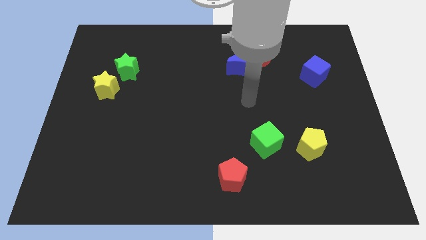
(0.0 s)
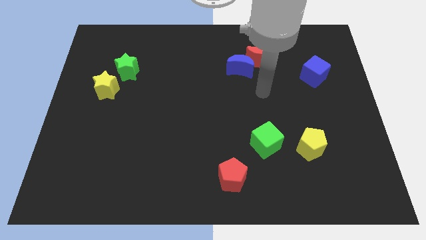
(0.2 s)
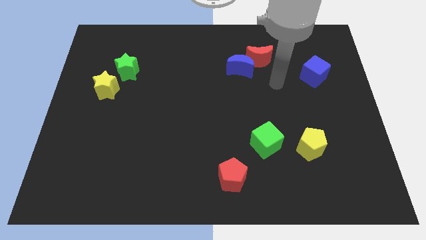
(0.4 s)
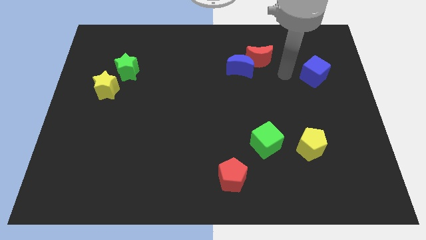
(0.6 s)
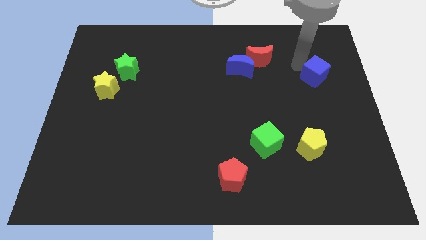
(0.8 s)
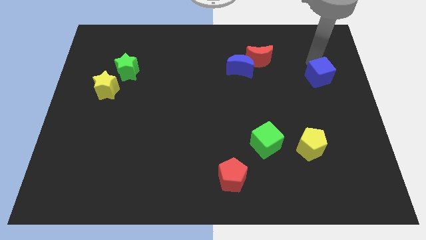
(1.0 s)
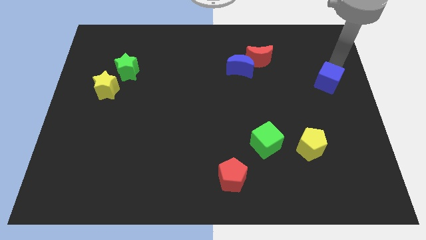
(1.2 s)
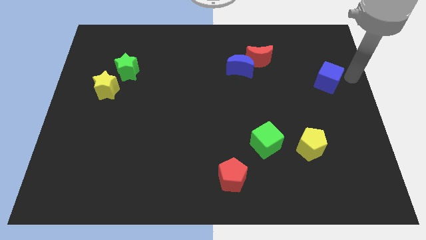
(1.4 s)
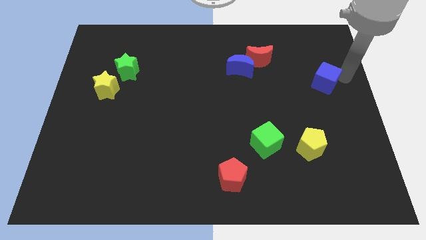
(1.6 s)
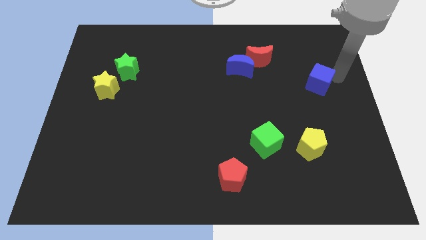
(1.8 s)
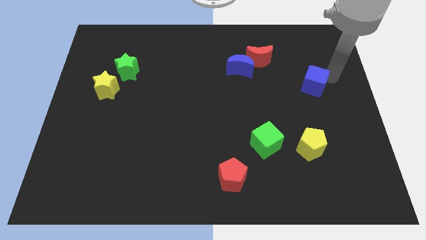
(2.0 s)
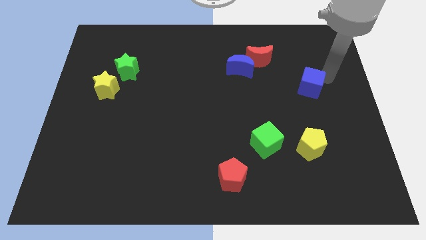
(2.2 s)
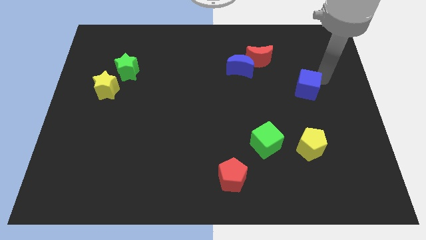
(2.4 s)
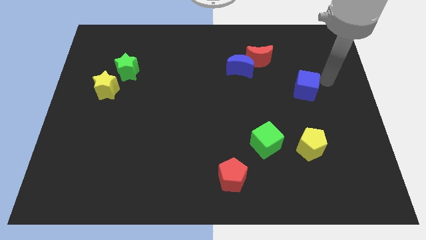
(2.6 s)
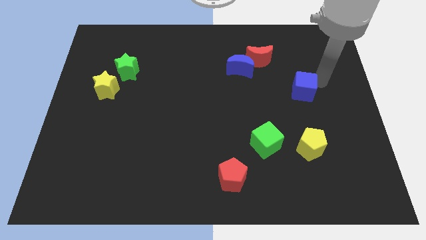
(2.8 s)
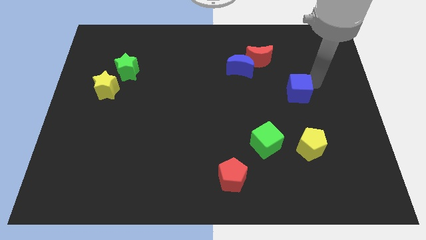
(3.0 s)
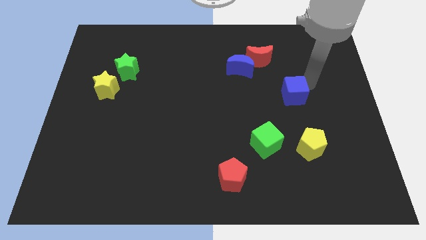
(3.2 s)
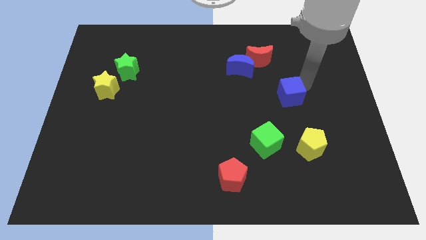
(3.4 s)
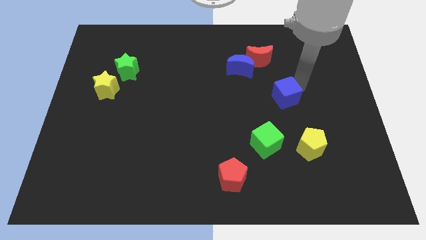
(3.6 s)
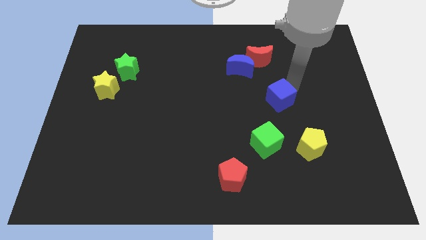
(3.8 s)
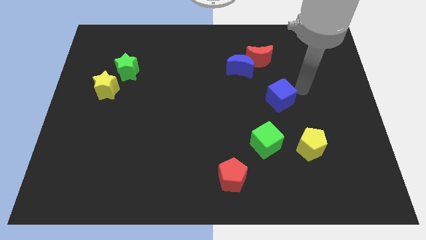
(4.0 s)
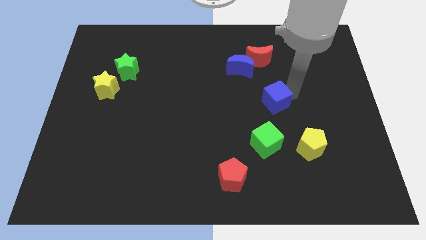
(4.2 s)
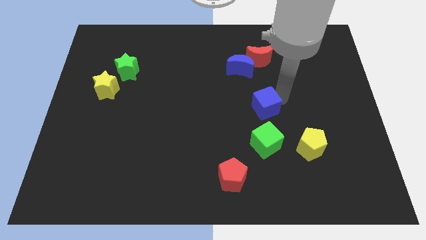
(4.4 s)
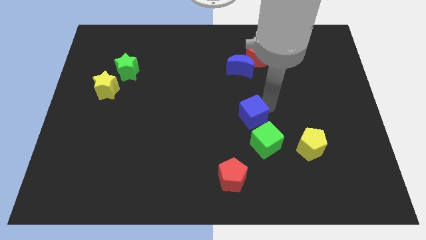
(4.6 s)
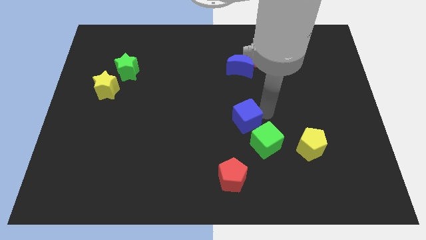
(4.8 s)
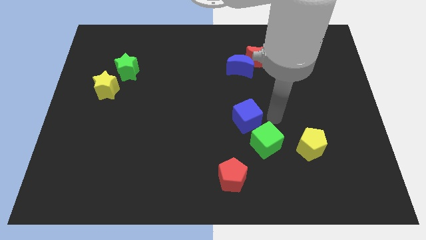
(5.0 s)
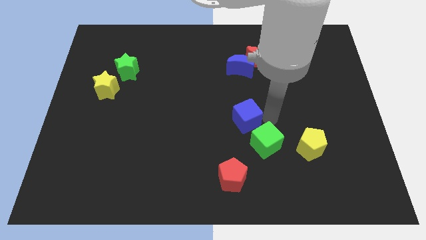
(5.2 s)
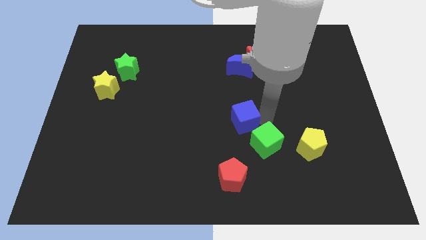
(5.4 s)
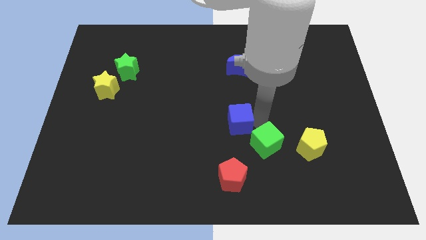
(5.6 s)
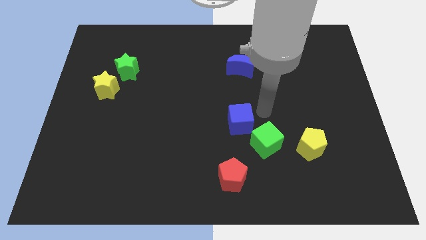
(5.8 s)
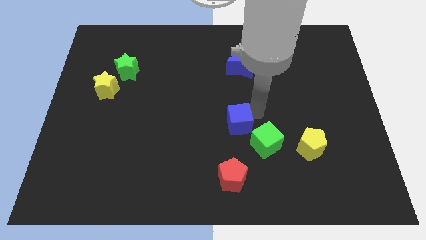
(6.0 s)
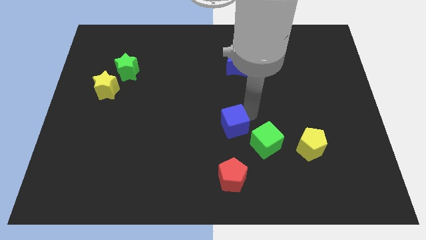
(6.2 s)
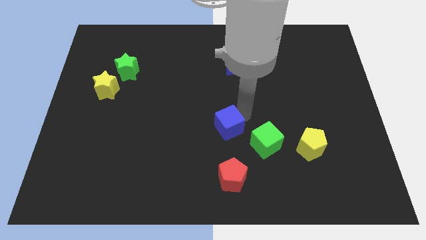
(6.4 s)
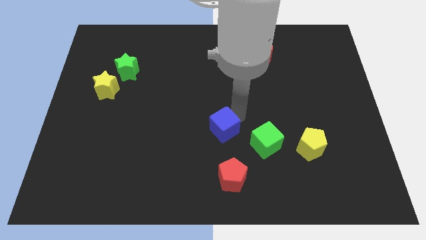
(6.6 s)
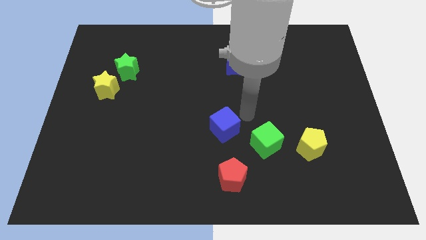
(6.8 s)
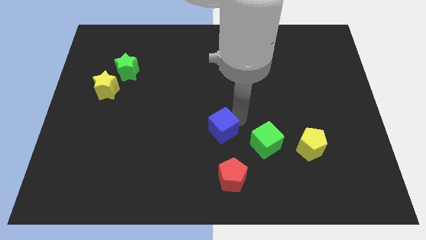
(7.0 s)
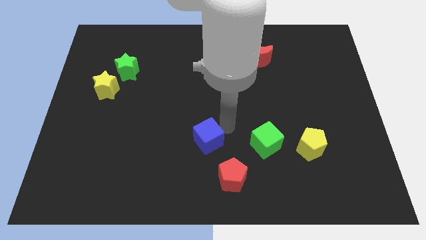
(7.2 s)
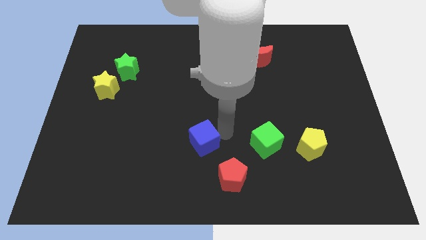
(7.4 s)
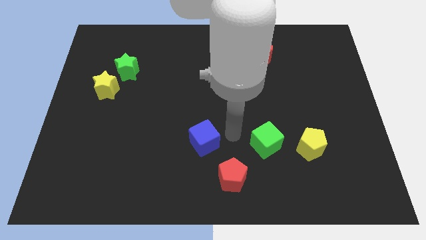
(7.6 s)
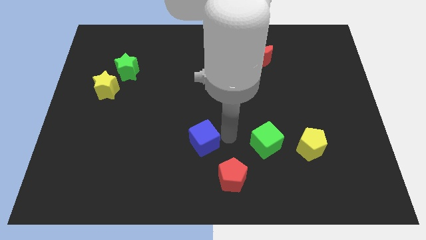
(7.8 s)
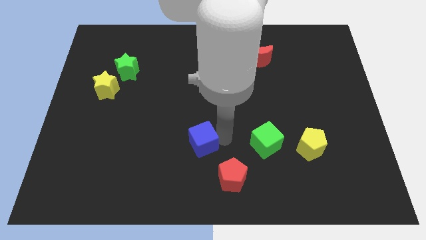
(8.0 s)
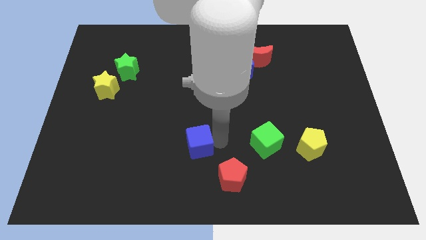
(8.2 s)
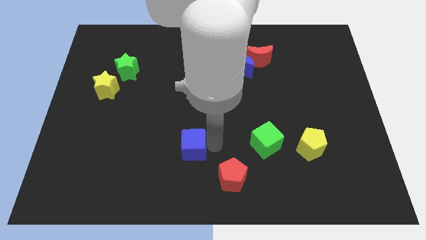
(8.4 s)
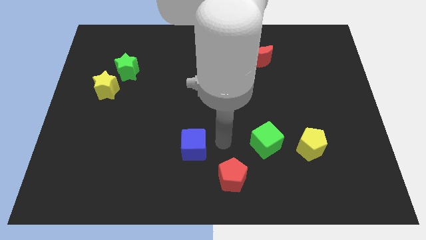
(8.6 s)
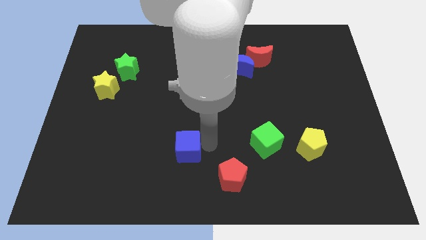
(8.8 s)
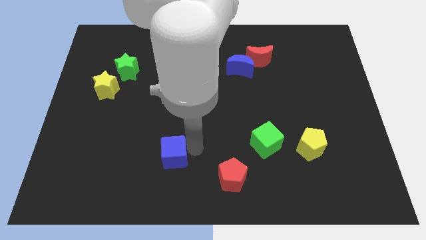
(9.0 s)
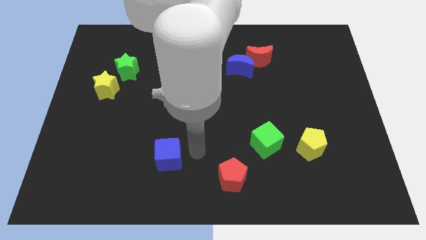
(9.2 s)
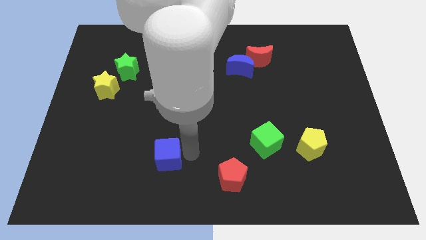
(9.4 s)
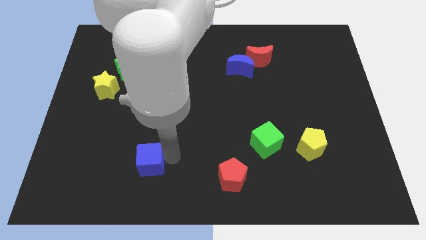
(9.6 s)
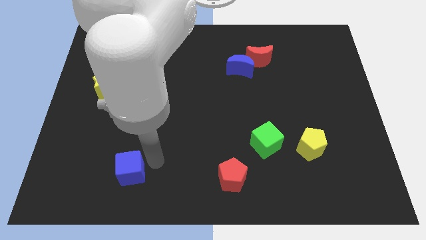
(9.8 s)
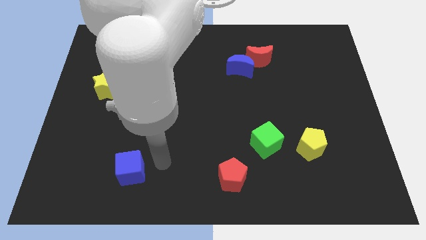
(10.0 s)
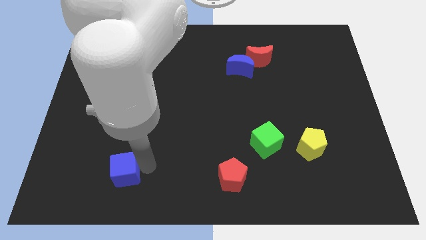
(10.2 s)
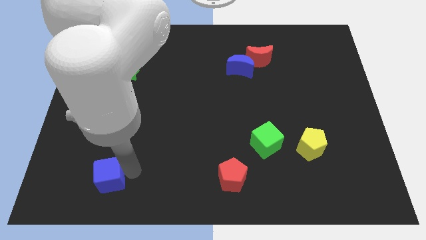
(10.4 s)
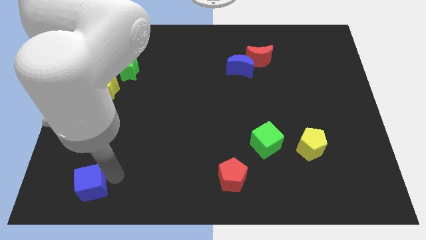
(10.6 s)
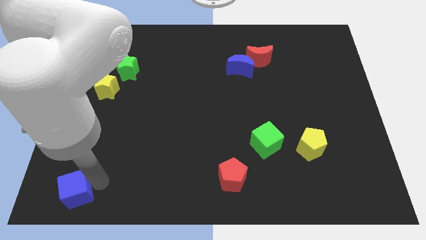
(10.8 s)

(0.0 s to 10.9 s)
move the blue cube to the bottom left

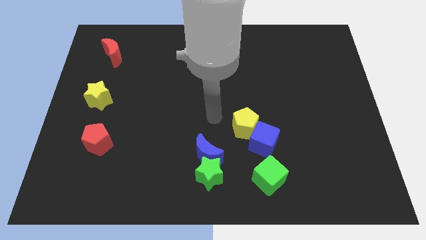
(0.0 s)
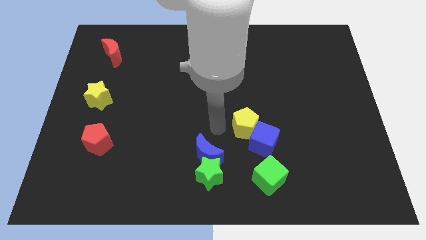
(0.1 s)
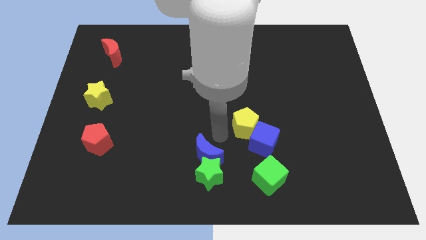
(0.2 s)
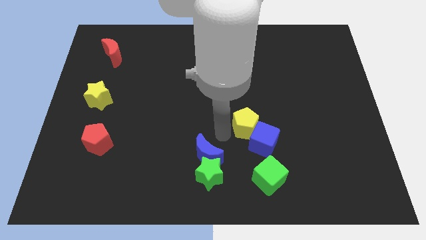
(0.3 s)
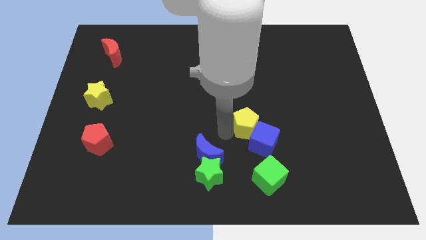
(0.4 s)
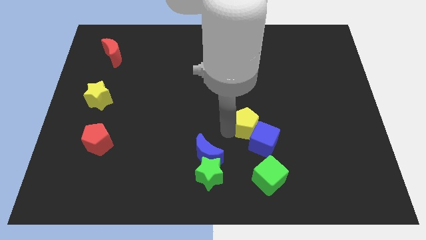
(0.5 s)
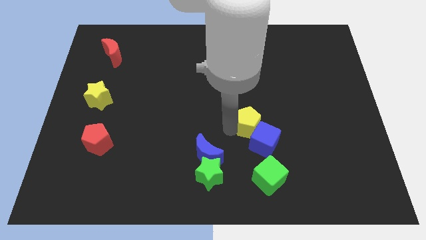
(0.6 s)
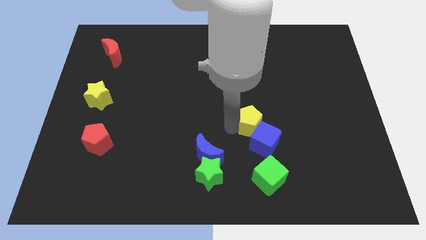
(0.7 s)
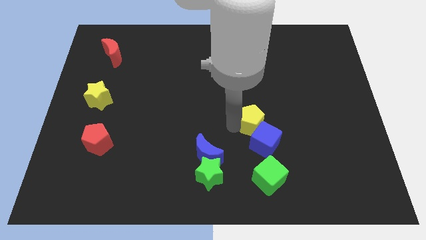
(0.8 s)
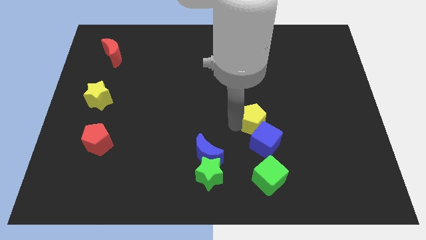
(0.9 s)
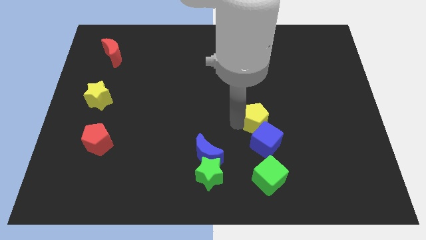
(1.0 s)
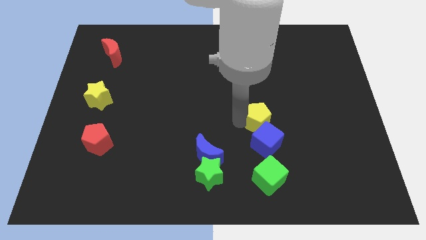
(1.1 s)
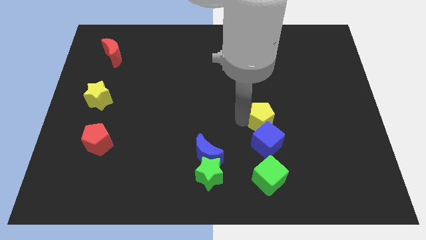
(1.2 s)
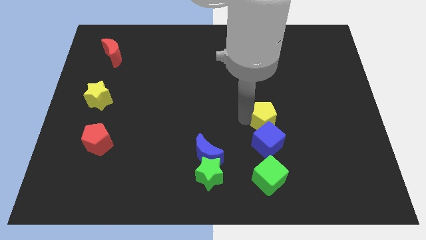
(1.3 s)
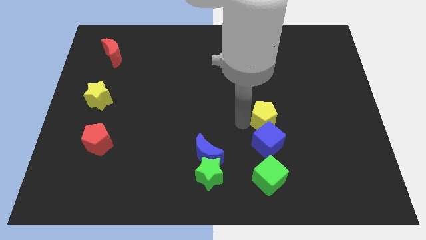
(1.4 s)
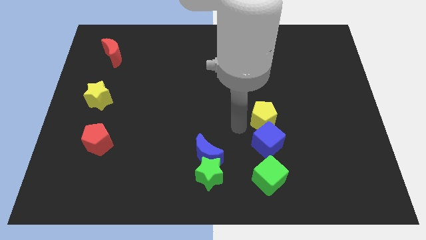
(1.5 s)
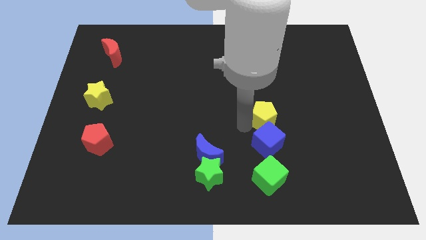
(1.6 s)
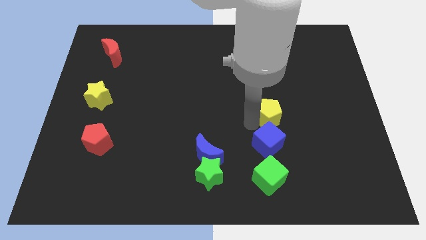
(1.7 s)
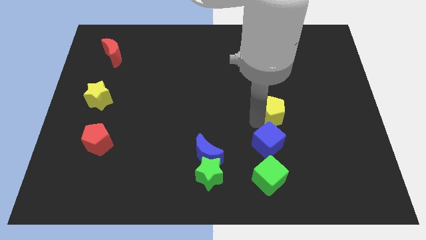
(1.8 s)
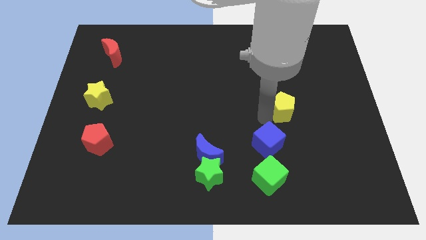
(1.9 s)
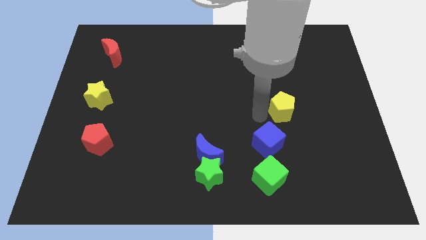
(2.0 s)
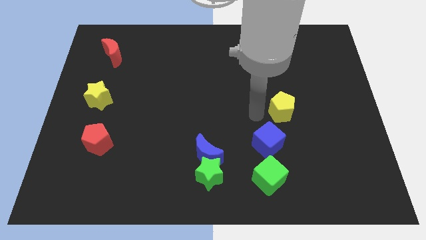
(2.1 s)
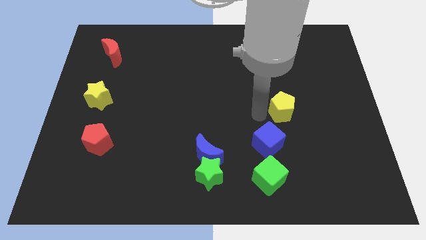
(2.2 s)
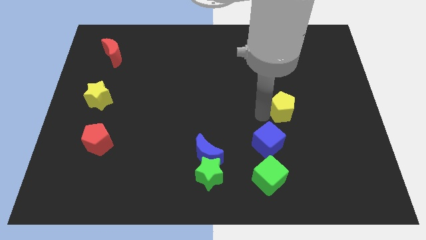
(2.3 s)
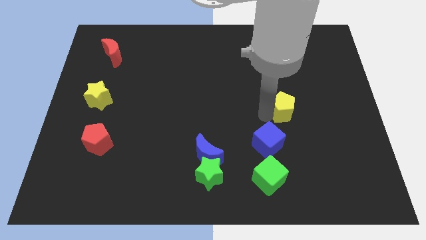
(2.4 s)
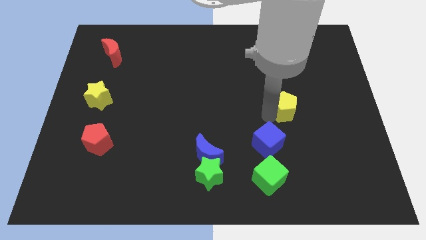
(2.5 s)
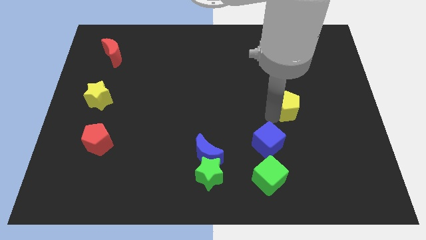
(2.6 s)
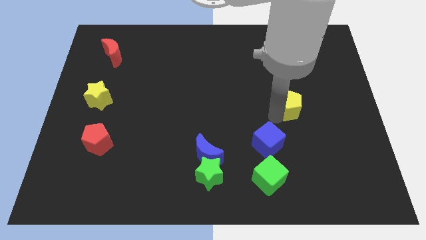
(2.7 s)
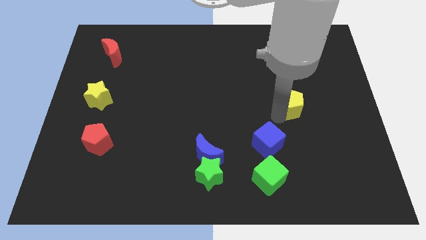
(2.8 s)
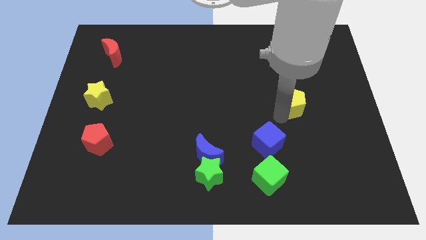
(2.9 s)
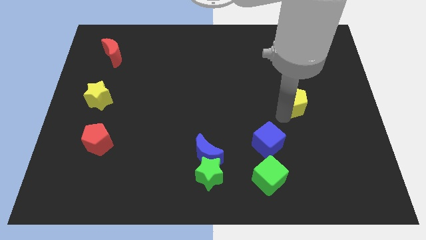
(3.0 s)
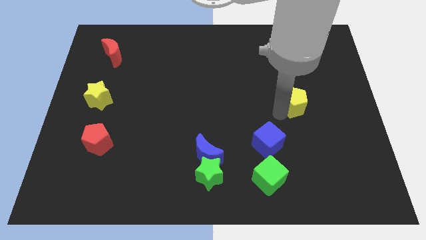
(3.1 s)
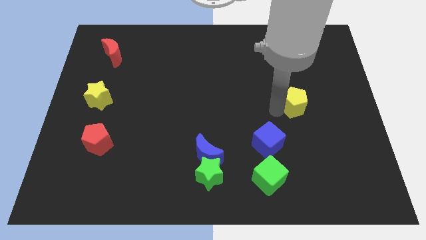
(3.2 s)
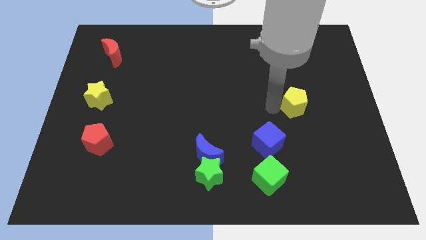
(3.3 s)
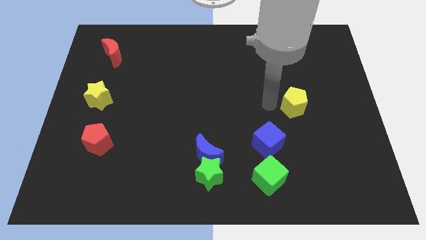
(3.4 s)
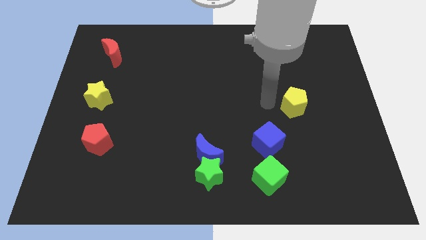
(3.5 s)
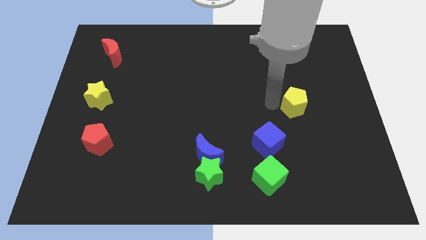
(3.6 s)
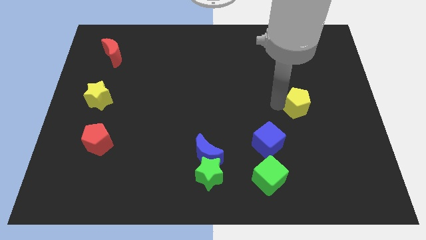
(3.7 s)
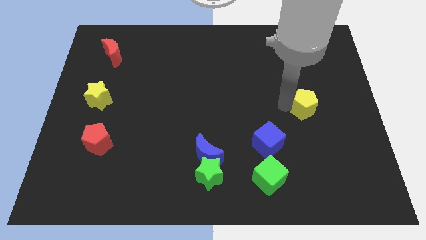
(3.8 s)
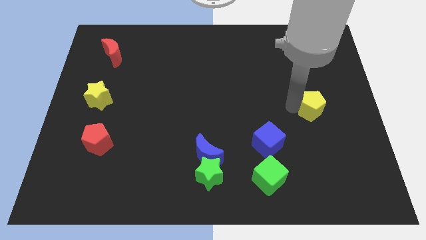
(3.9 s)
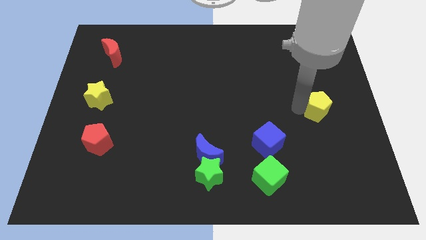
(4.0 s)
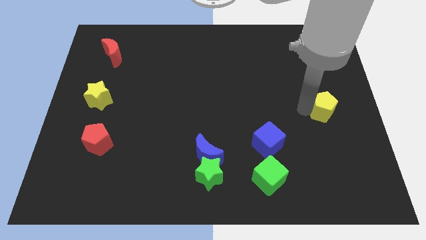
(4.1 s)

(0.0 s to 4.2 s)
push the yellow pentagon to the right side of the board
